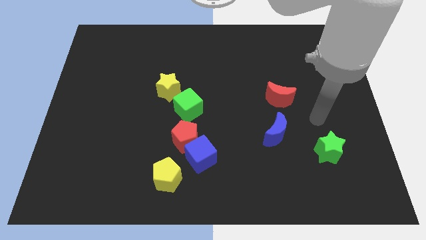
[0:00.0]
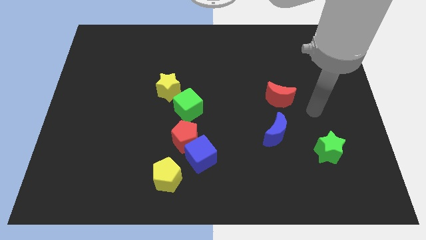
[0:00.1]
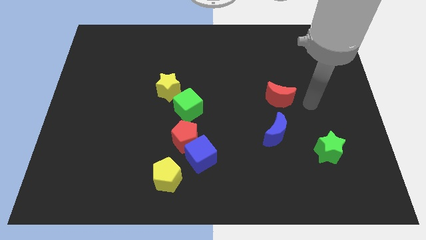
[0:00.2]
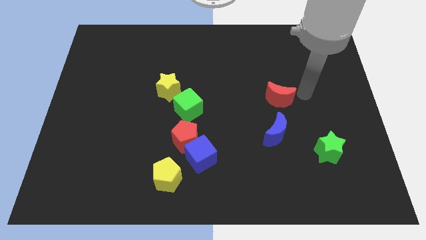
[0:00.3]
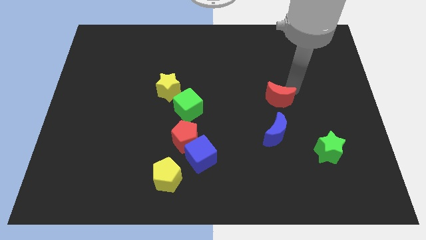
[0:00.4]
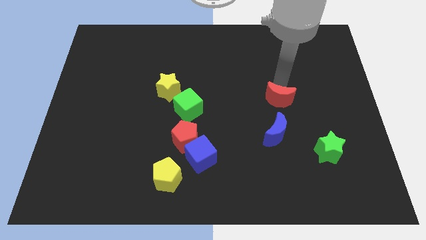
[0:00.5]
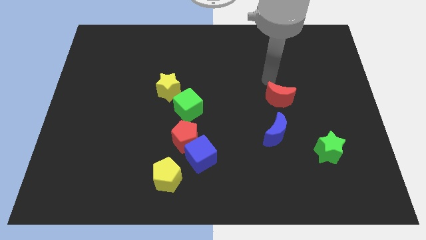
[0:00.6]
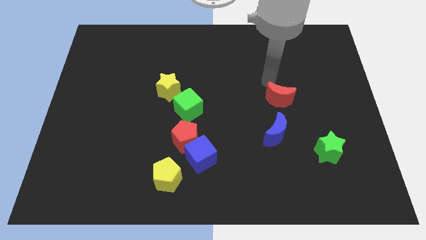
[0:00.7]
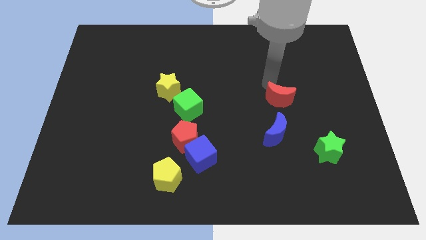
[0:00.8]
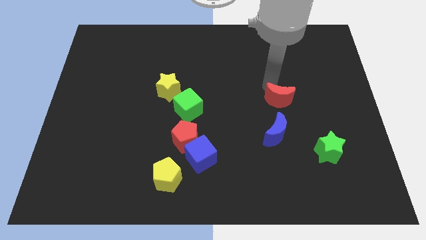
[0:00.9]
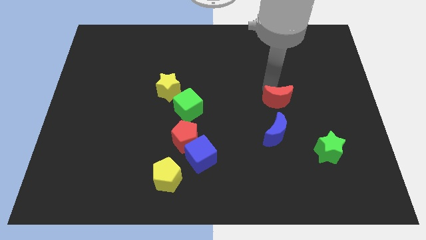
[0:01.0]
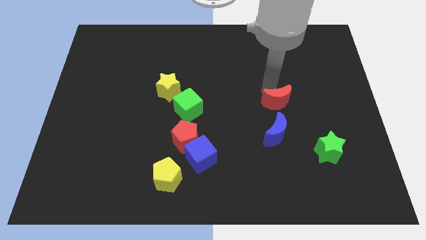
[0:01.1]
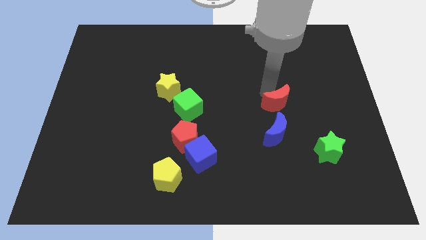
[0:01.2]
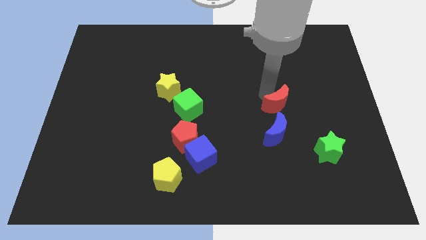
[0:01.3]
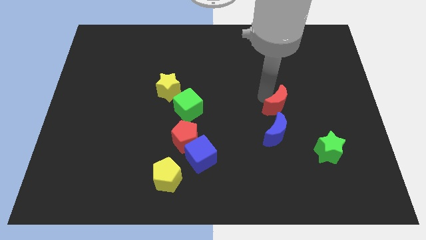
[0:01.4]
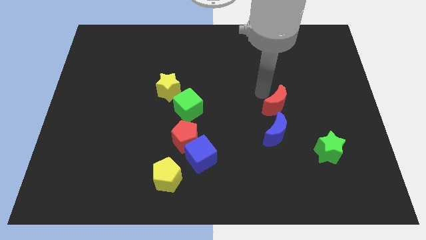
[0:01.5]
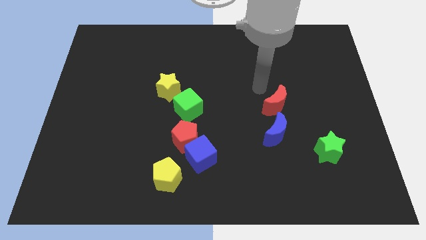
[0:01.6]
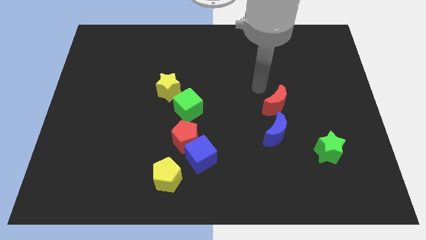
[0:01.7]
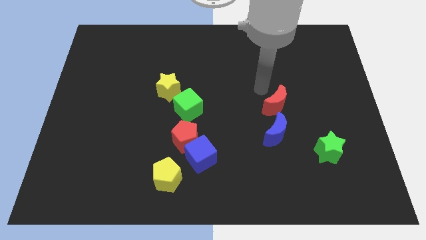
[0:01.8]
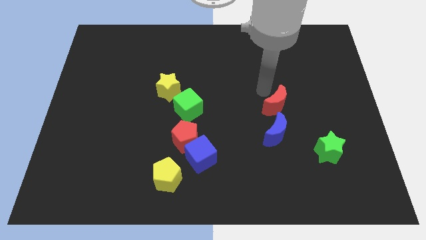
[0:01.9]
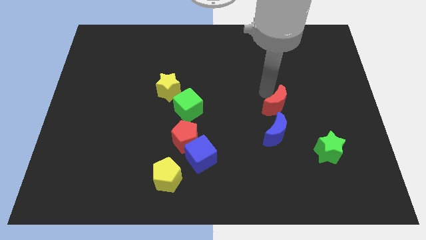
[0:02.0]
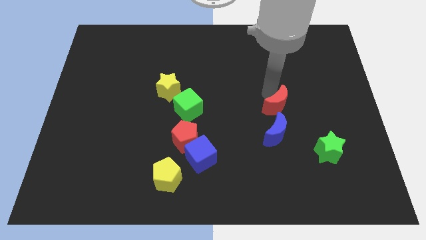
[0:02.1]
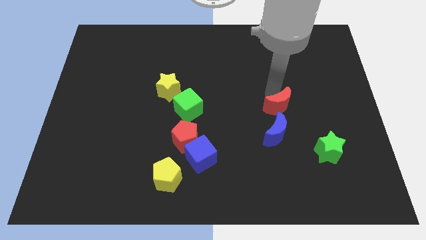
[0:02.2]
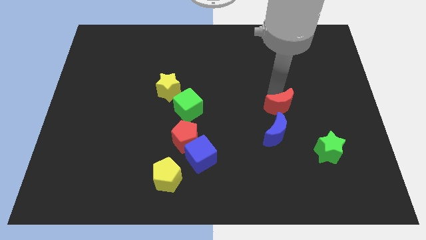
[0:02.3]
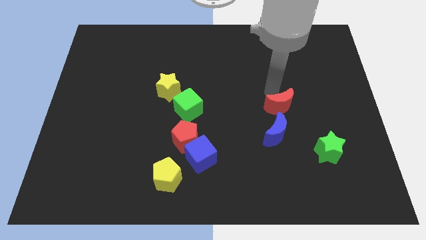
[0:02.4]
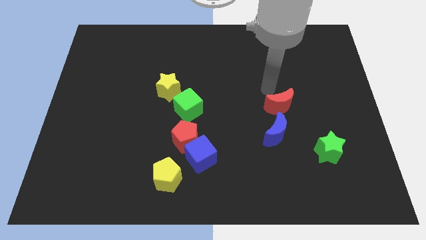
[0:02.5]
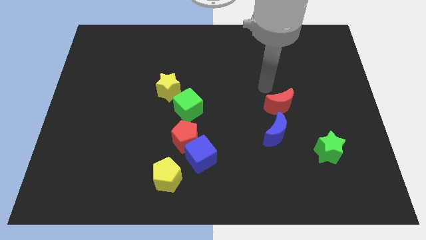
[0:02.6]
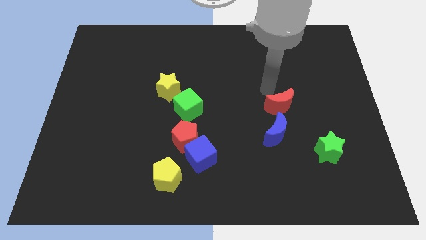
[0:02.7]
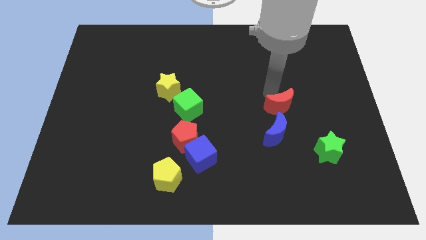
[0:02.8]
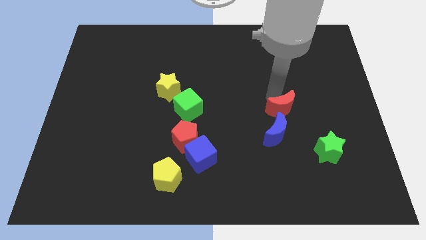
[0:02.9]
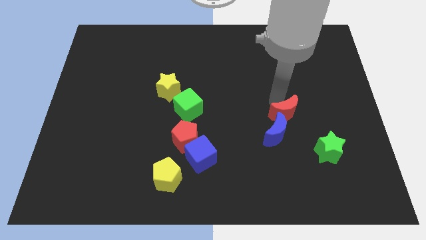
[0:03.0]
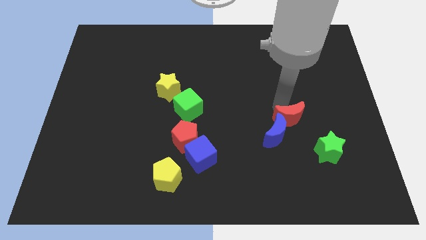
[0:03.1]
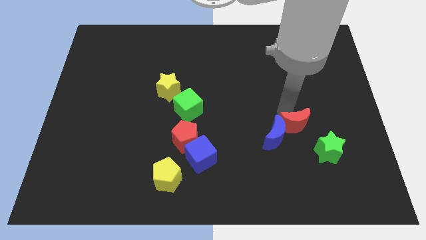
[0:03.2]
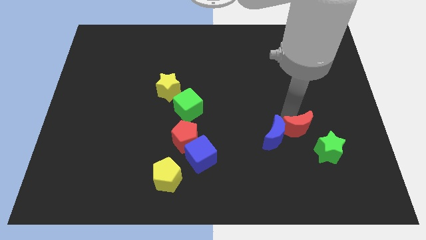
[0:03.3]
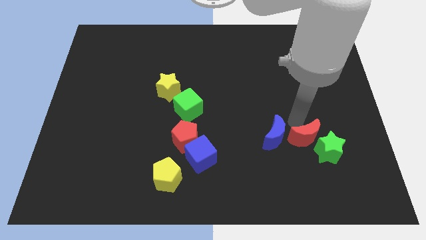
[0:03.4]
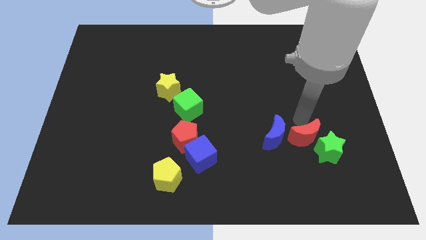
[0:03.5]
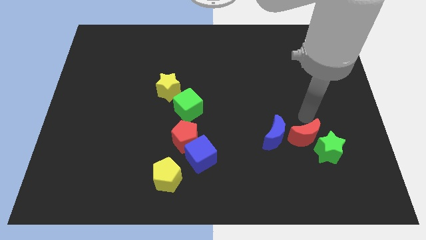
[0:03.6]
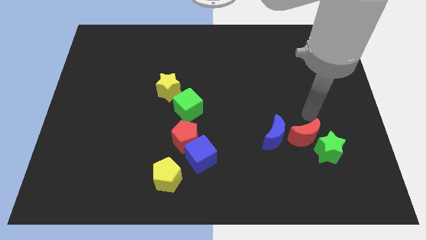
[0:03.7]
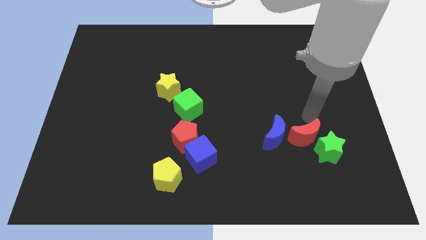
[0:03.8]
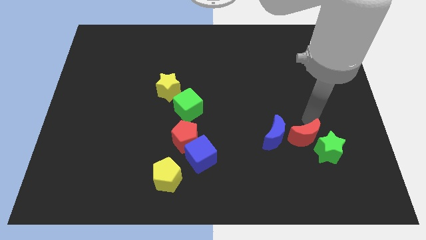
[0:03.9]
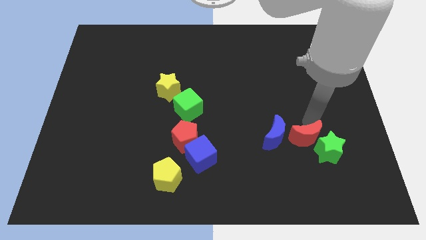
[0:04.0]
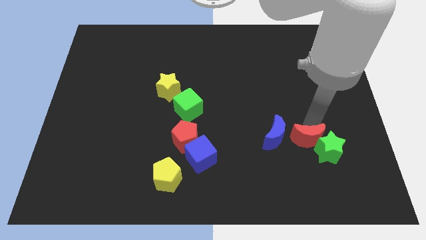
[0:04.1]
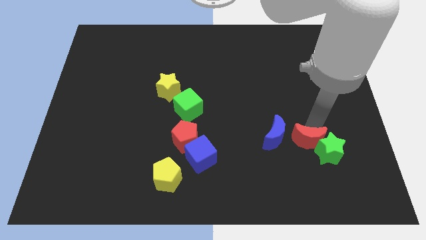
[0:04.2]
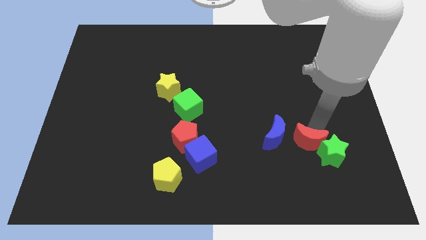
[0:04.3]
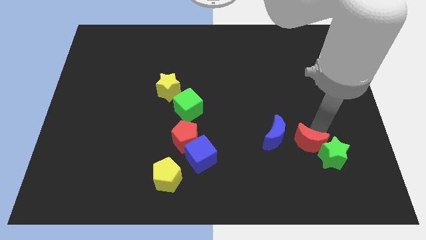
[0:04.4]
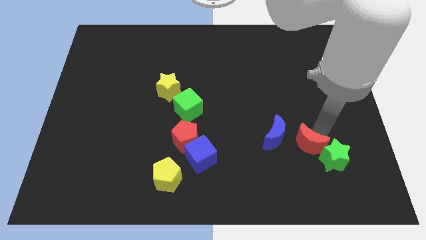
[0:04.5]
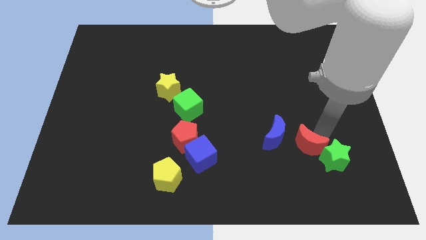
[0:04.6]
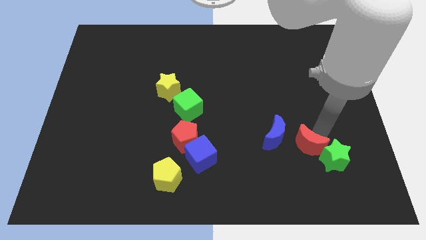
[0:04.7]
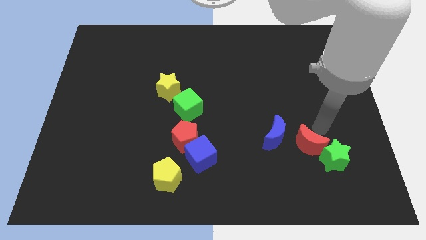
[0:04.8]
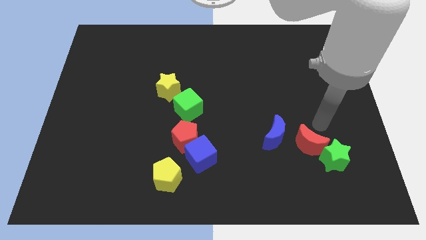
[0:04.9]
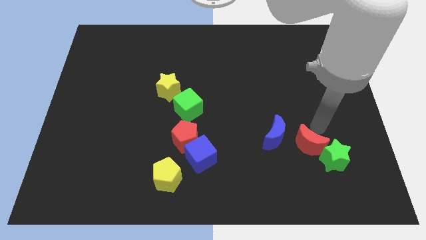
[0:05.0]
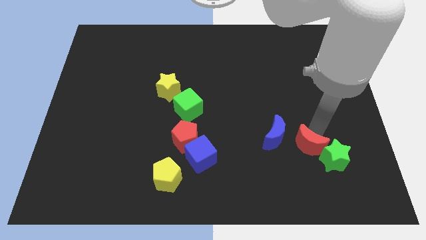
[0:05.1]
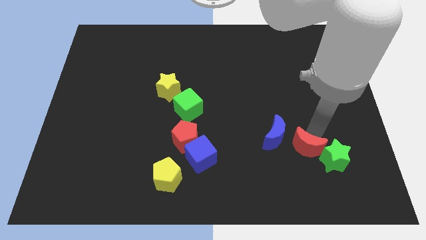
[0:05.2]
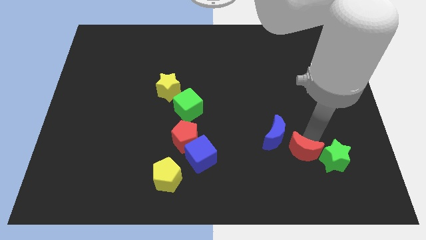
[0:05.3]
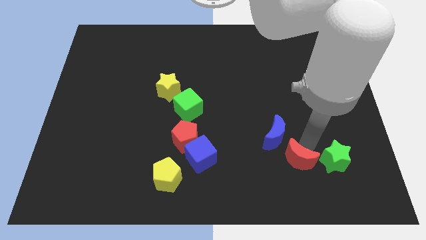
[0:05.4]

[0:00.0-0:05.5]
push the red moon to the bottom side of the blue moon

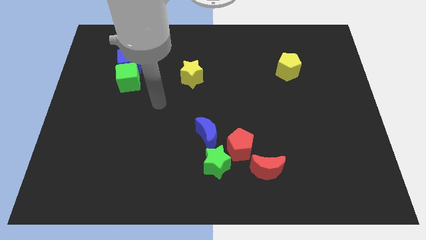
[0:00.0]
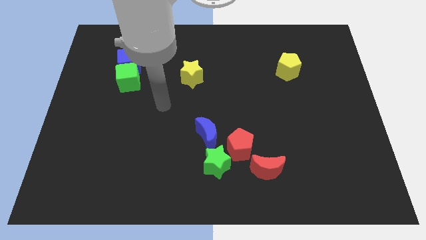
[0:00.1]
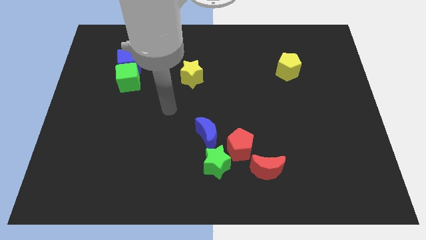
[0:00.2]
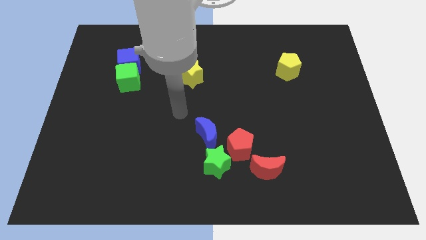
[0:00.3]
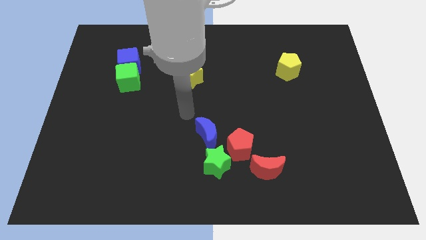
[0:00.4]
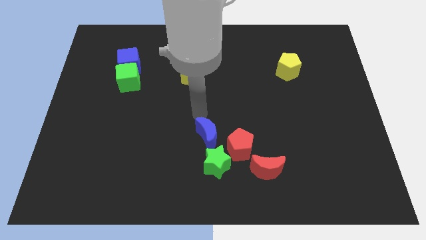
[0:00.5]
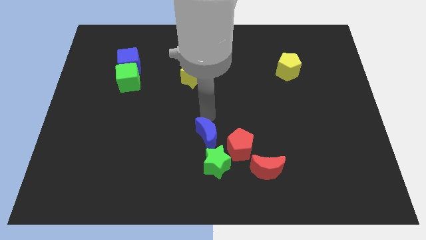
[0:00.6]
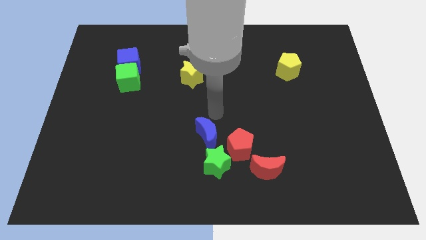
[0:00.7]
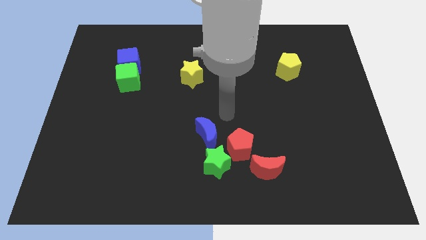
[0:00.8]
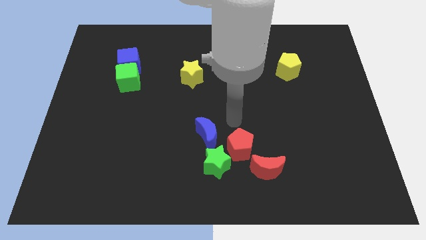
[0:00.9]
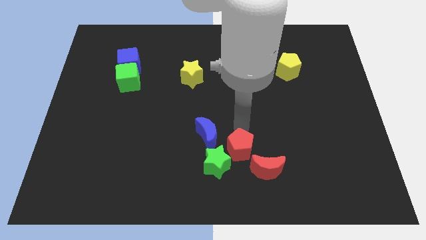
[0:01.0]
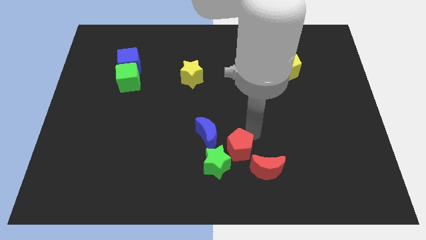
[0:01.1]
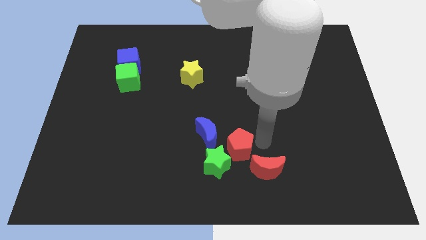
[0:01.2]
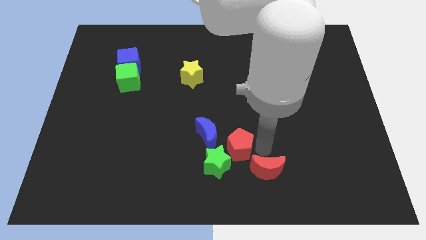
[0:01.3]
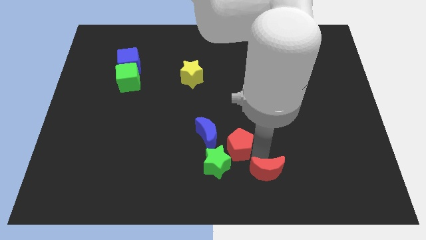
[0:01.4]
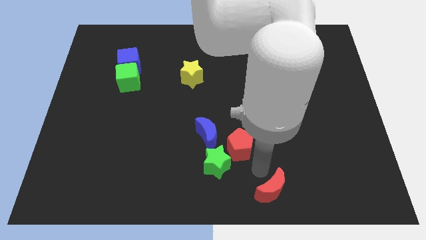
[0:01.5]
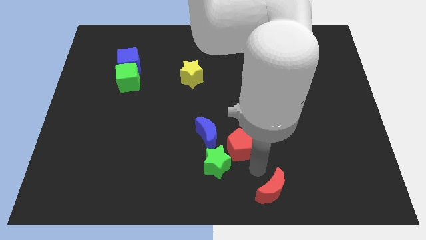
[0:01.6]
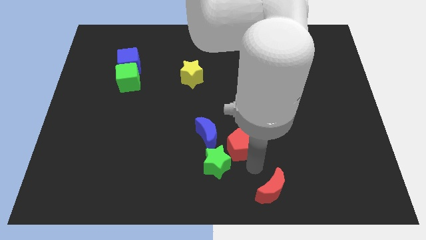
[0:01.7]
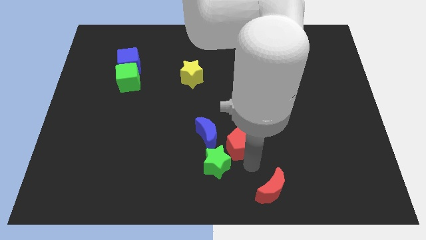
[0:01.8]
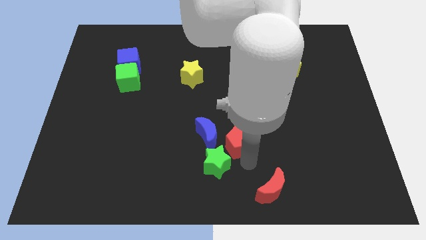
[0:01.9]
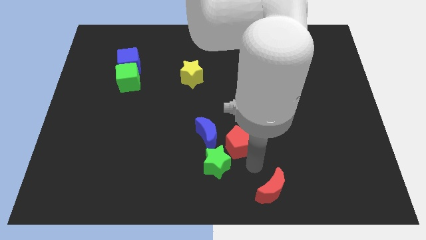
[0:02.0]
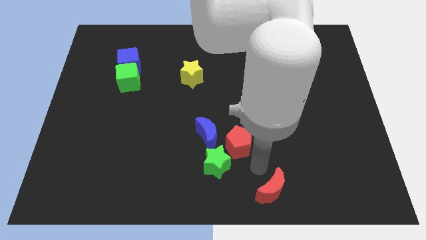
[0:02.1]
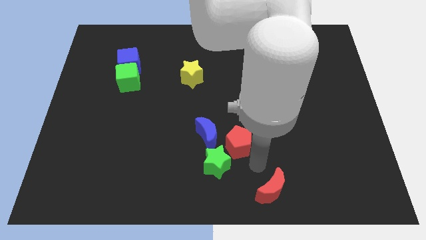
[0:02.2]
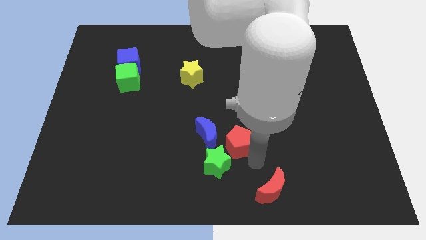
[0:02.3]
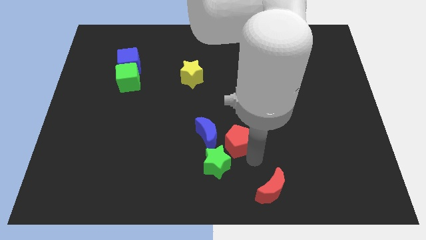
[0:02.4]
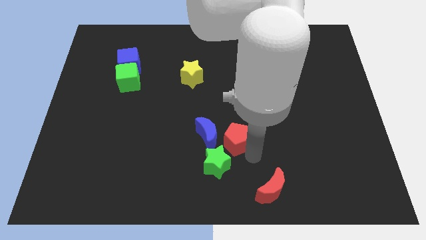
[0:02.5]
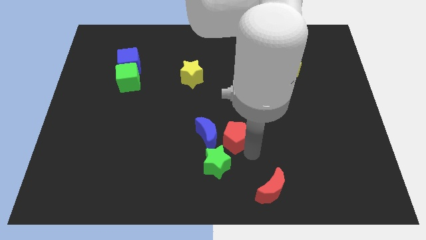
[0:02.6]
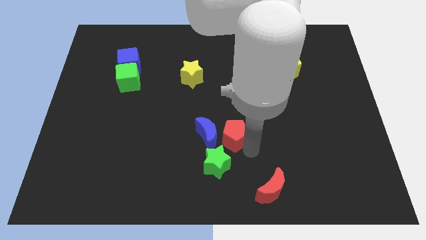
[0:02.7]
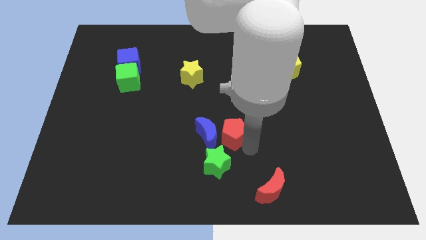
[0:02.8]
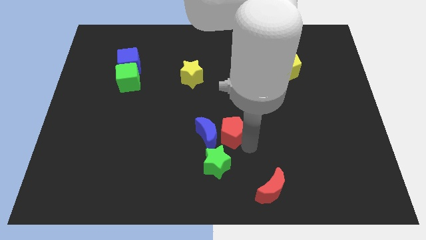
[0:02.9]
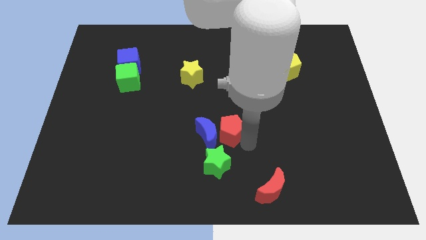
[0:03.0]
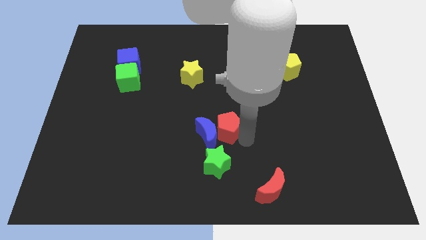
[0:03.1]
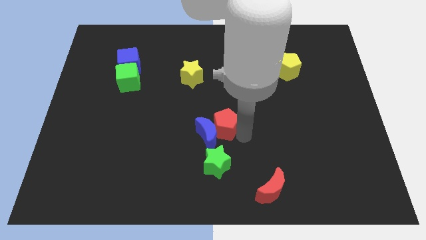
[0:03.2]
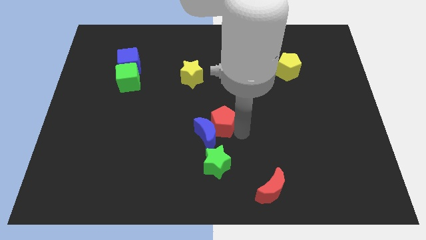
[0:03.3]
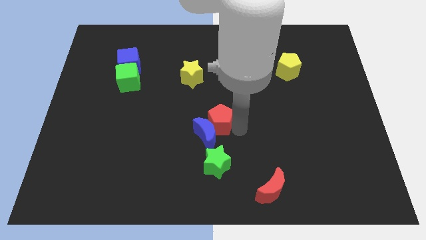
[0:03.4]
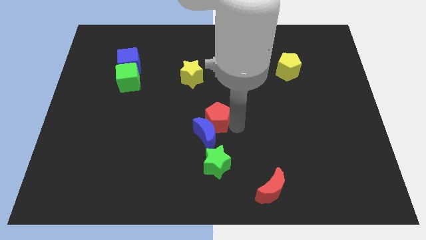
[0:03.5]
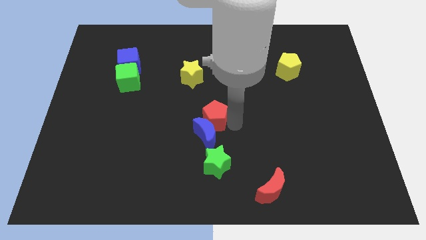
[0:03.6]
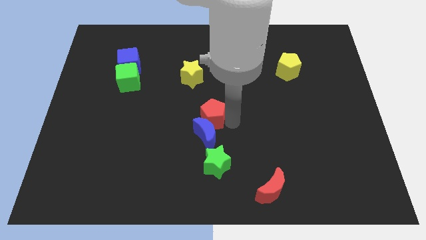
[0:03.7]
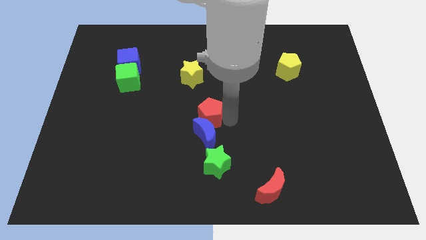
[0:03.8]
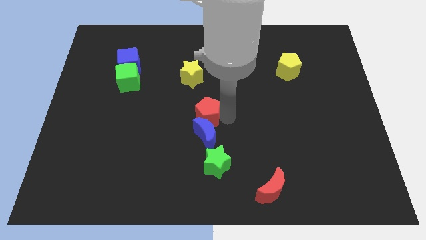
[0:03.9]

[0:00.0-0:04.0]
put the red pentagon to the bottom of the yellow star
